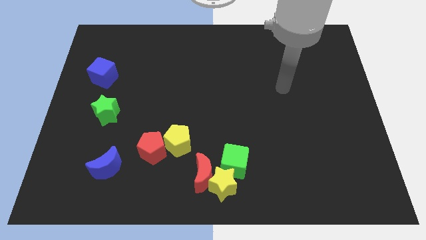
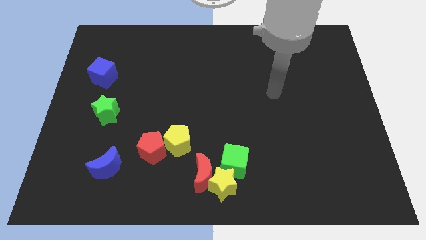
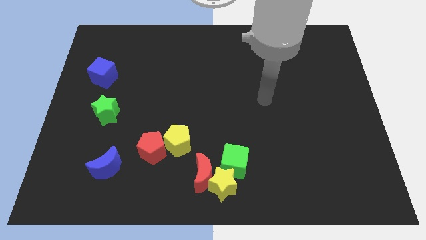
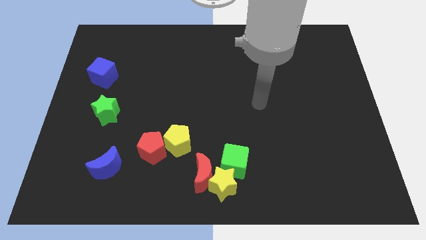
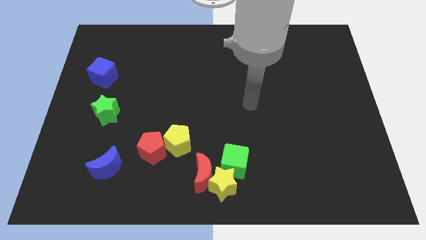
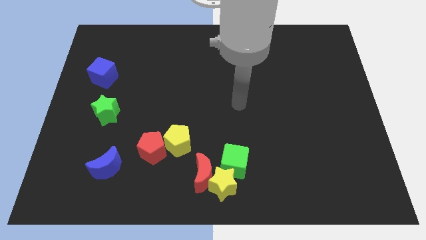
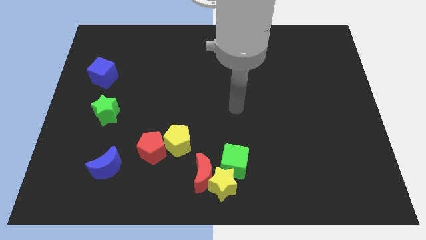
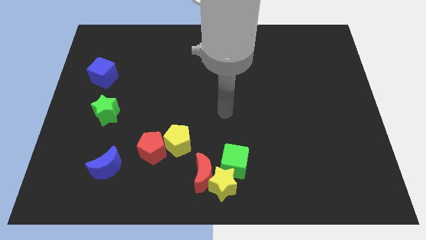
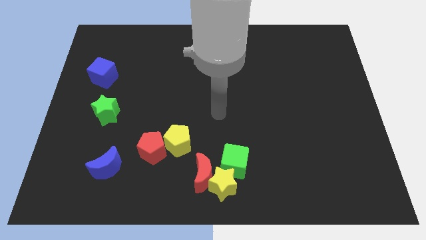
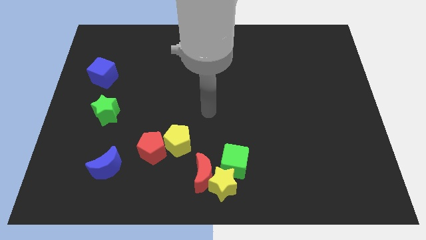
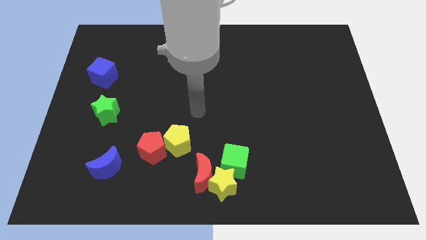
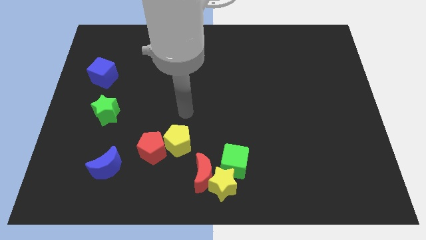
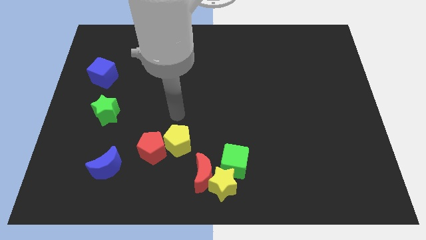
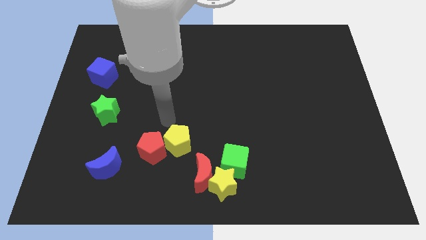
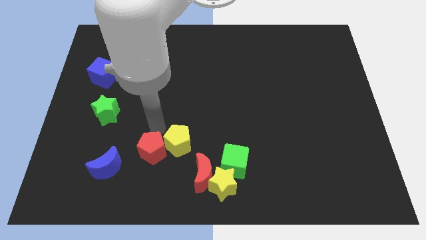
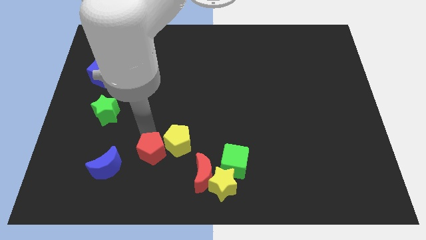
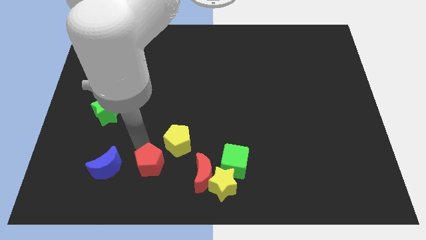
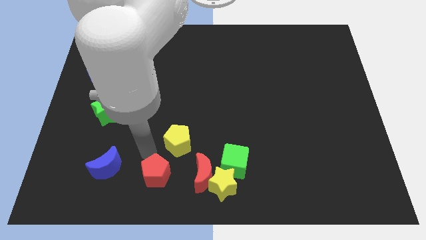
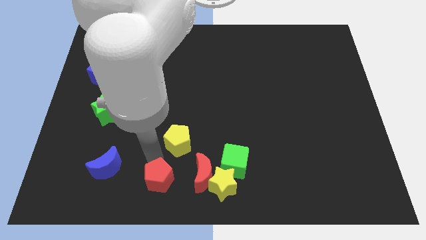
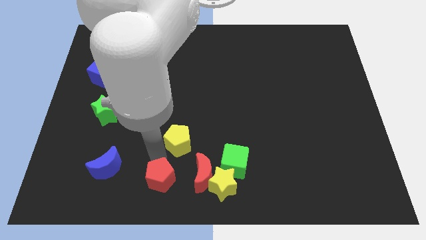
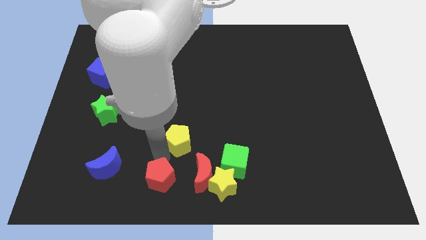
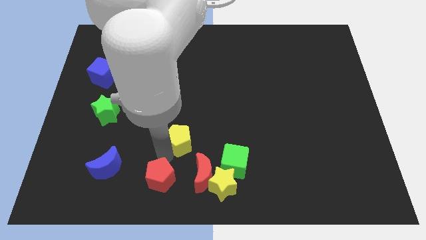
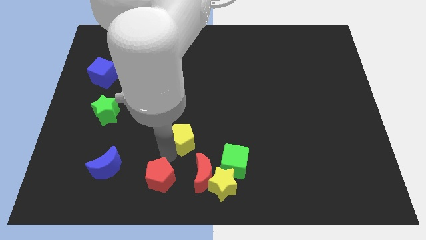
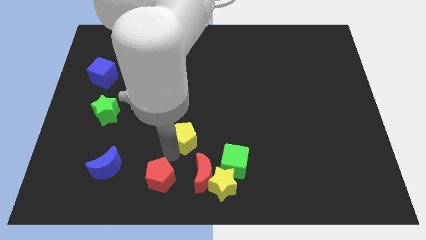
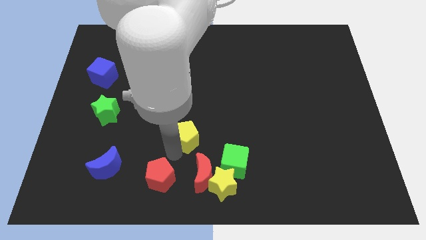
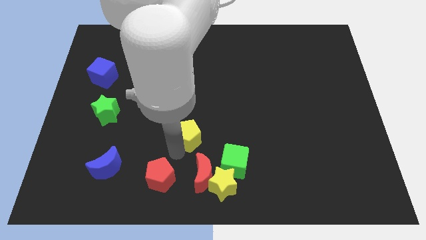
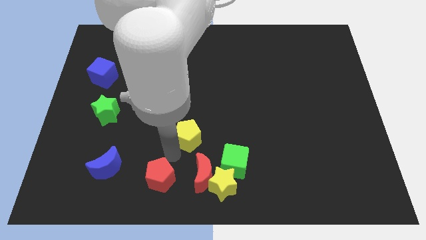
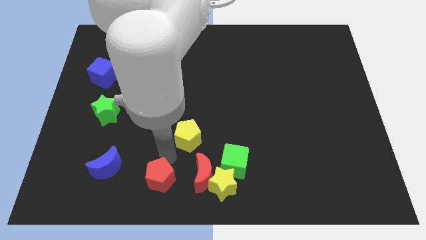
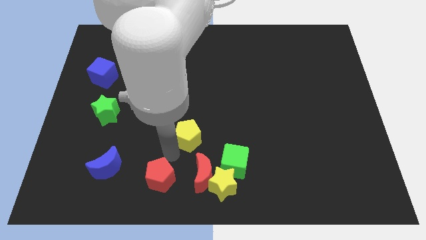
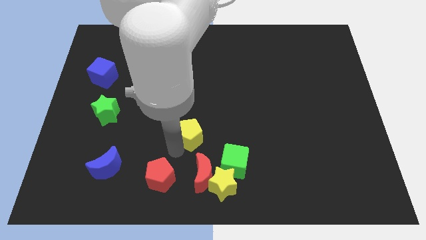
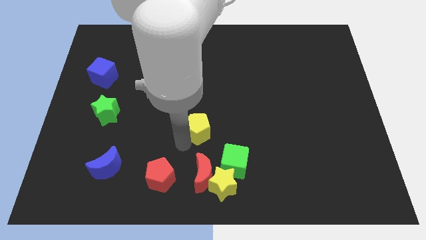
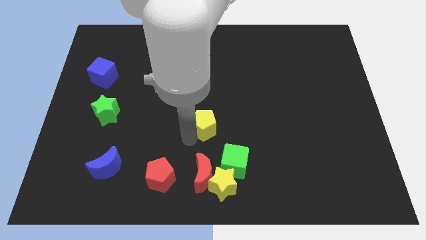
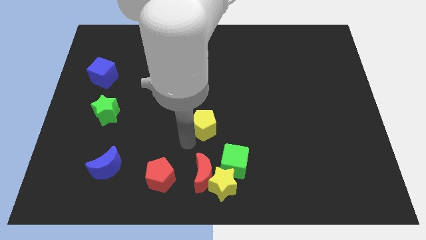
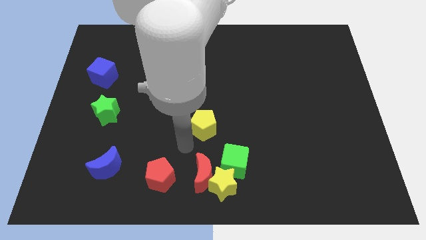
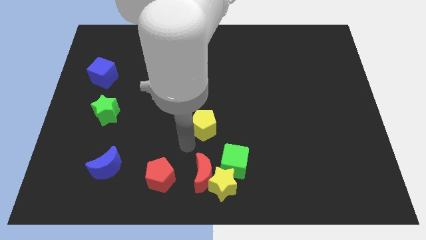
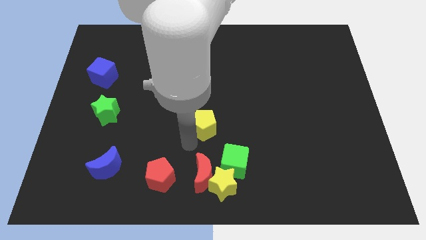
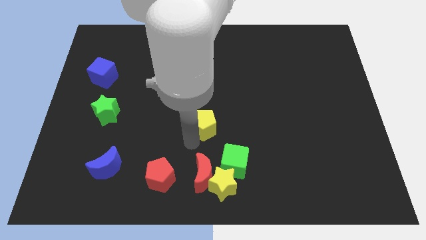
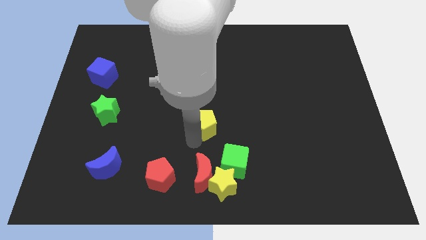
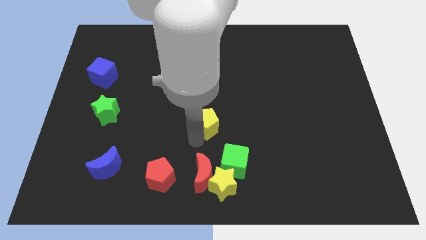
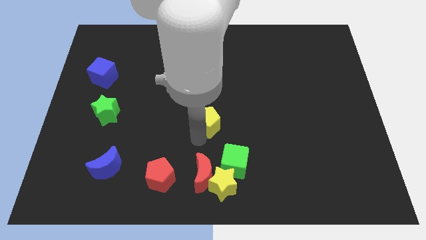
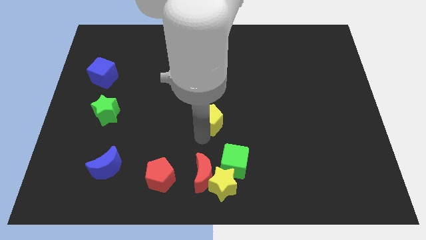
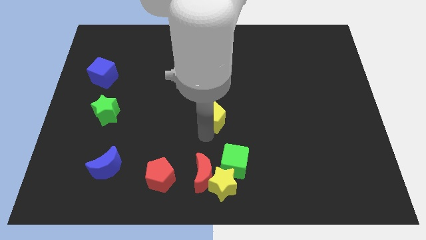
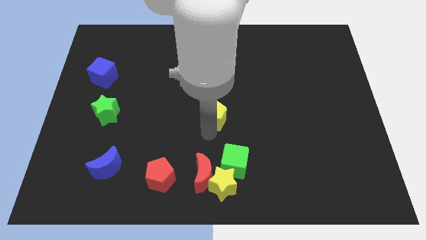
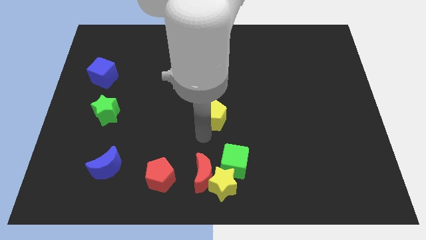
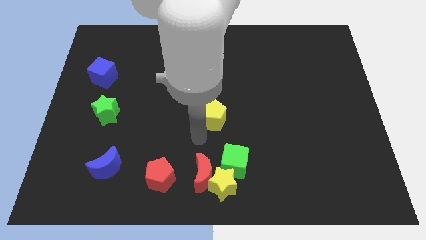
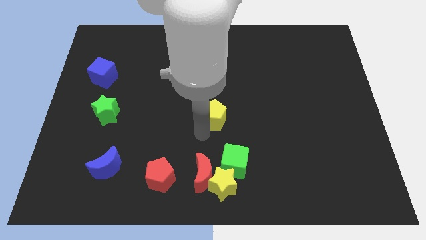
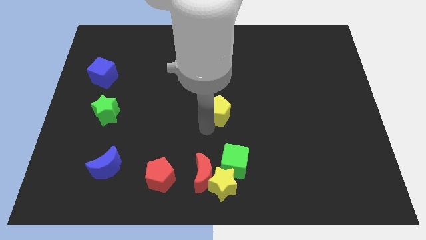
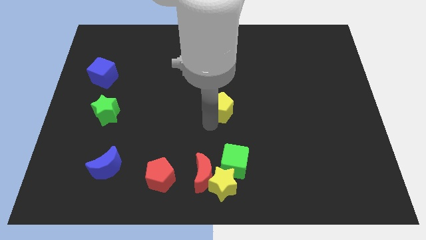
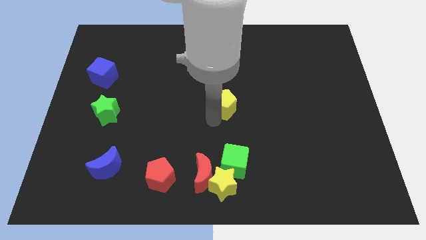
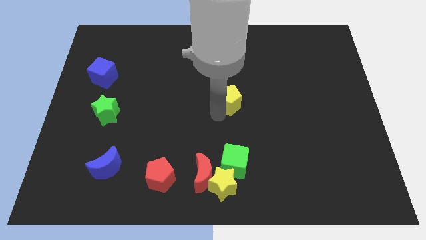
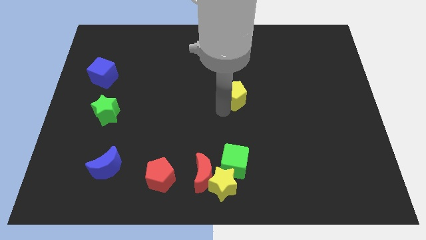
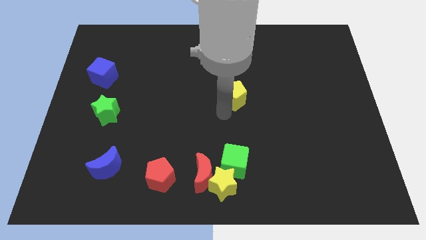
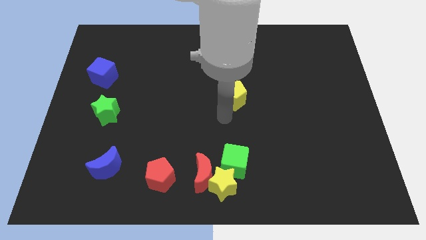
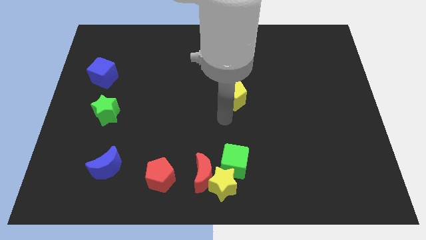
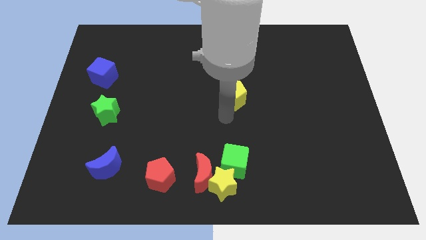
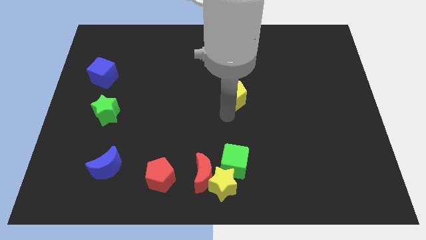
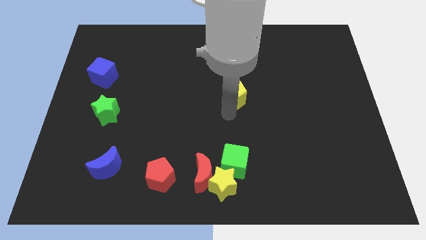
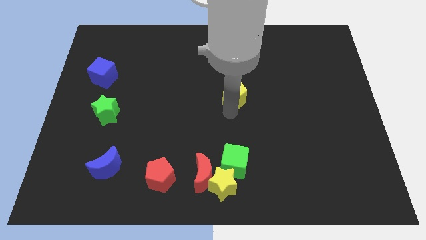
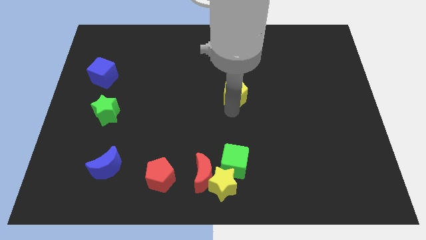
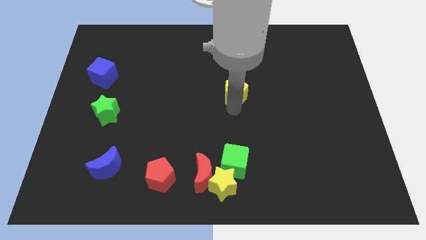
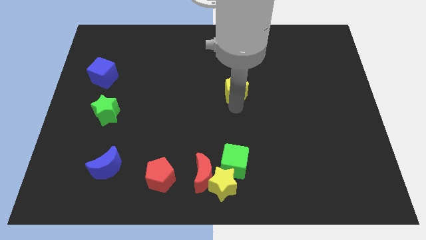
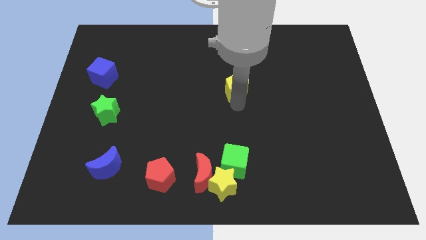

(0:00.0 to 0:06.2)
slide the yellow pentagon diagonally upwards and to the right

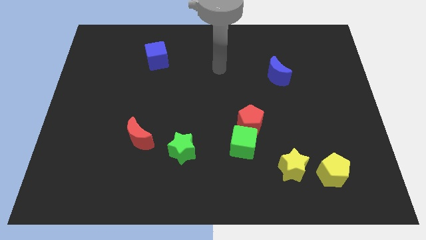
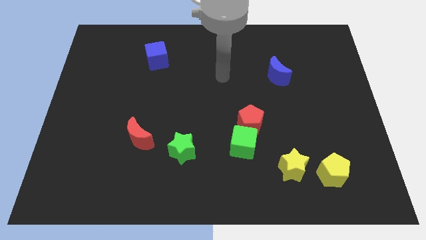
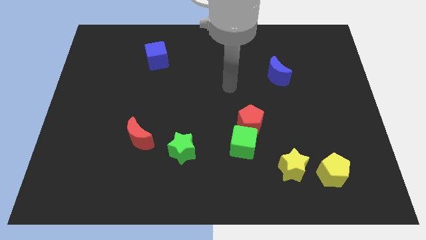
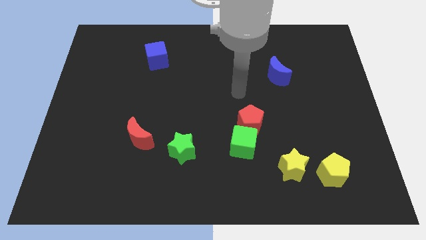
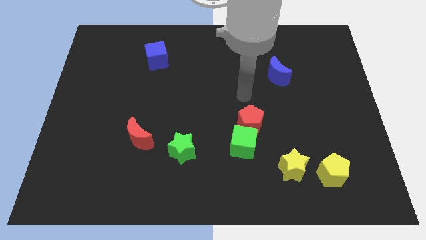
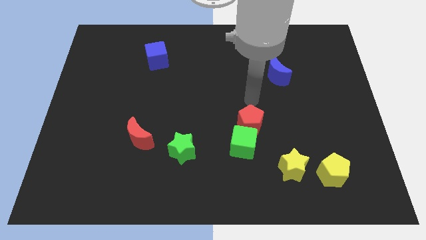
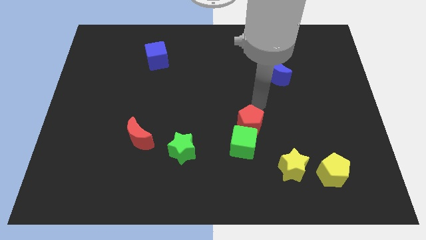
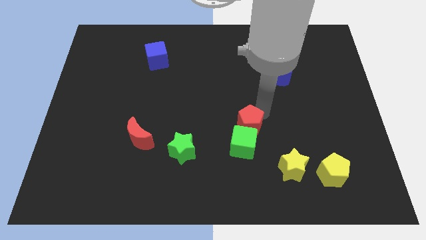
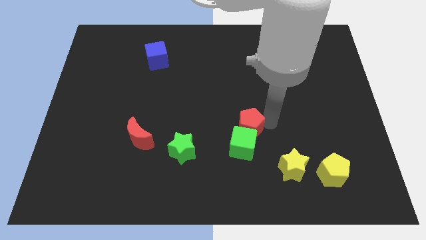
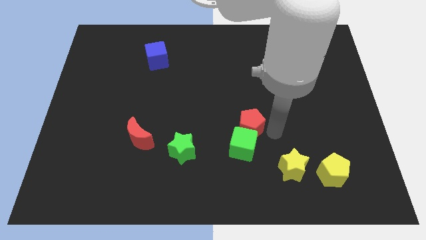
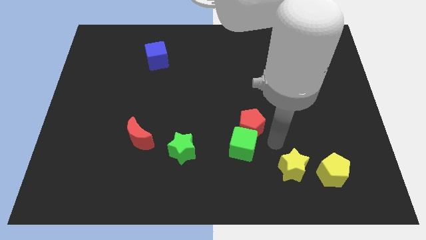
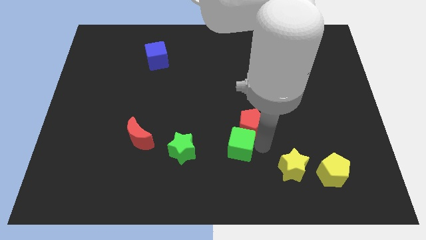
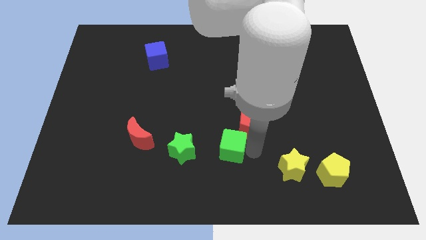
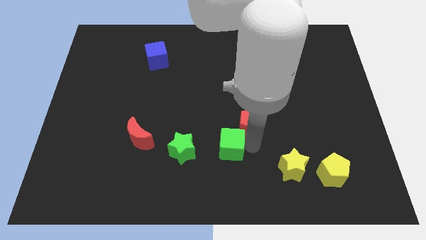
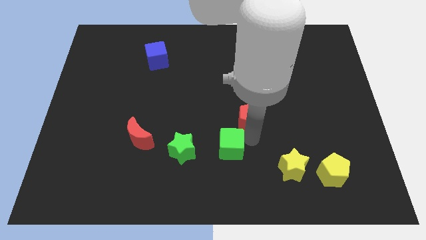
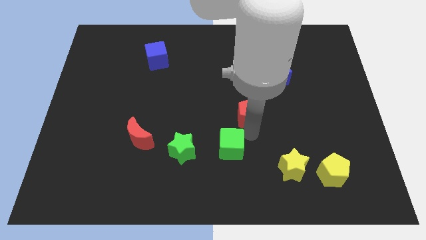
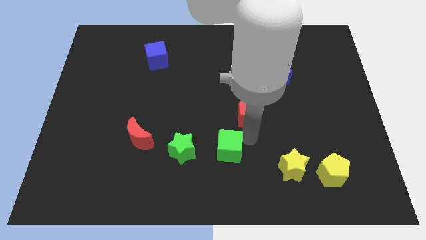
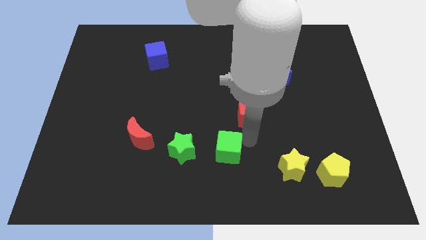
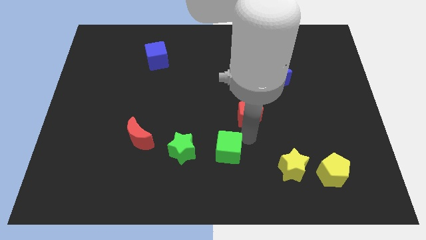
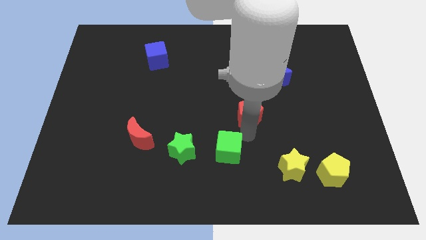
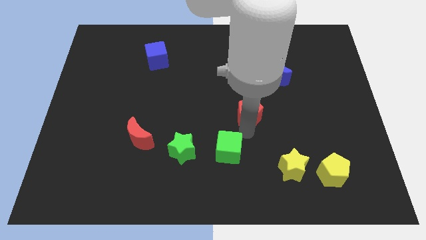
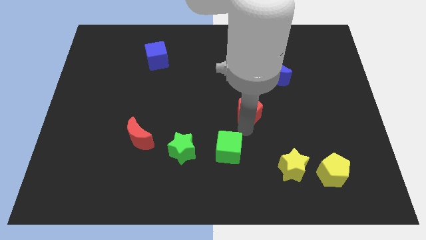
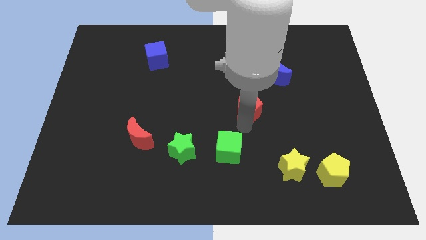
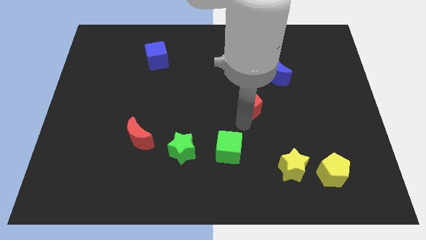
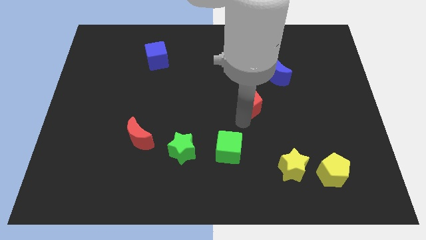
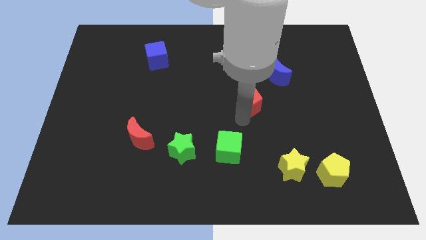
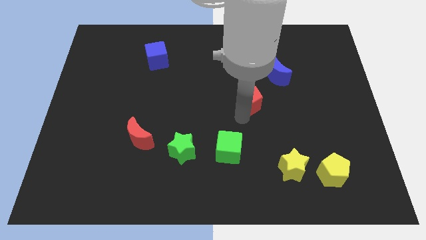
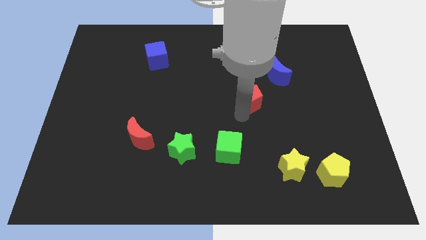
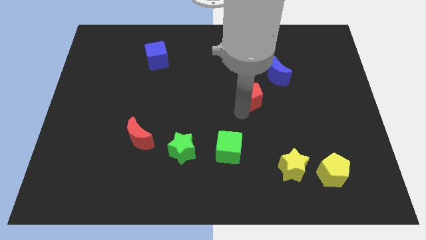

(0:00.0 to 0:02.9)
slightly push the red pentagon upwards
